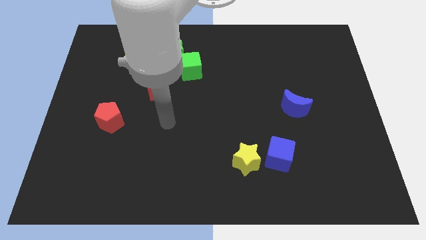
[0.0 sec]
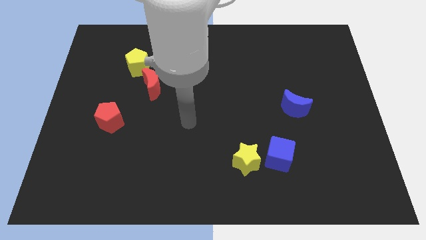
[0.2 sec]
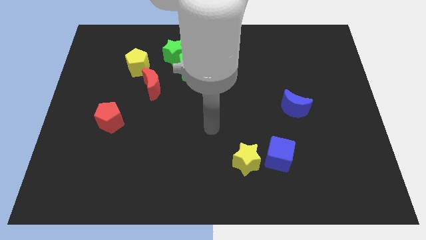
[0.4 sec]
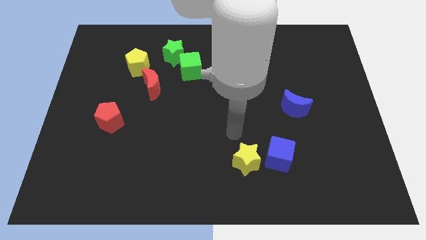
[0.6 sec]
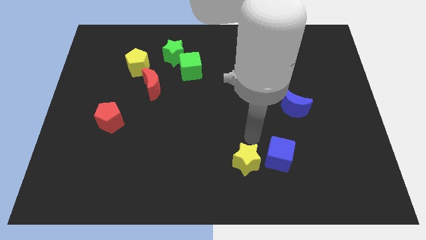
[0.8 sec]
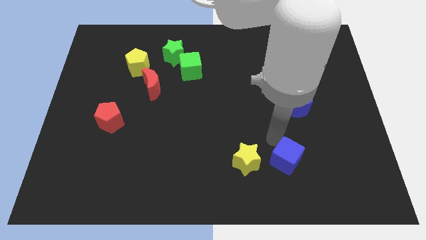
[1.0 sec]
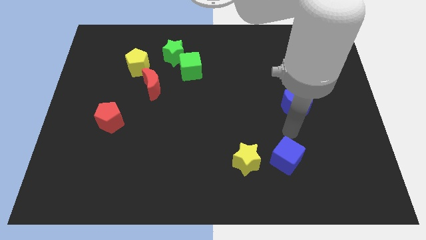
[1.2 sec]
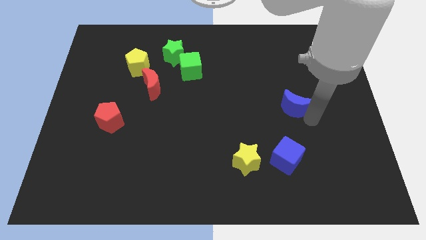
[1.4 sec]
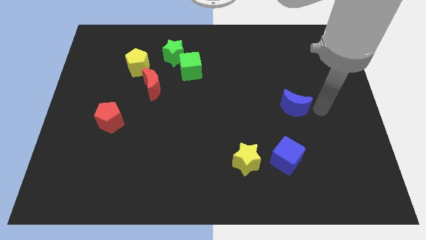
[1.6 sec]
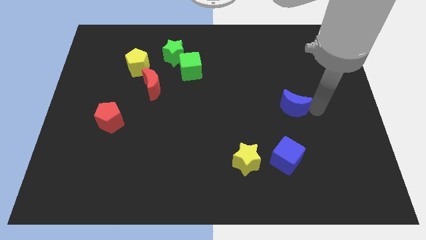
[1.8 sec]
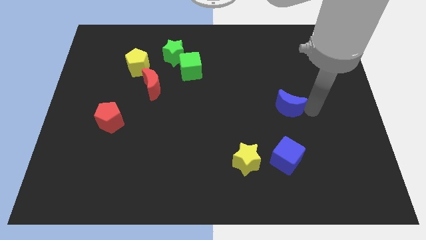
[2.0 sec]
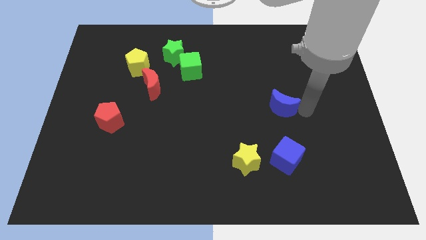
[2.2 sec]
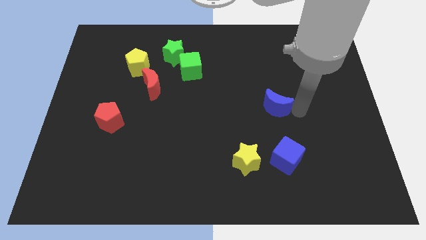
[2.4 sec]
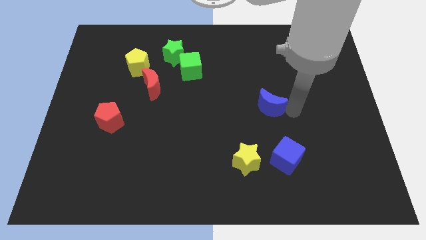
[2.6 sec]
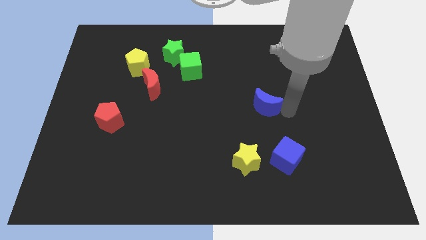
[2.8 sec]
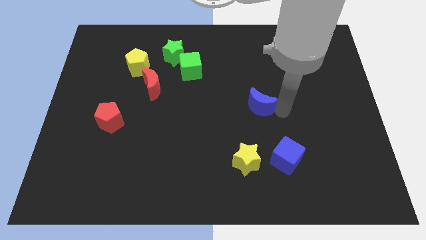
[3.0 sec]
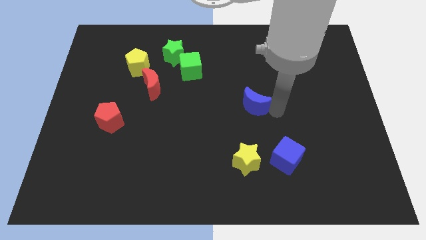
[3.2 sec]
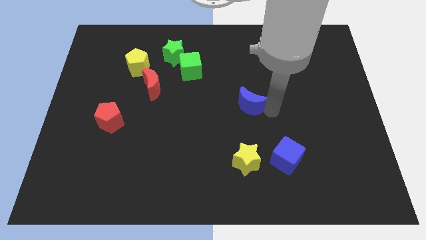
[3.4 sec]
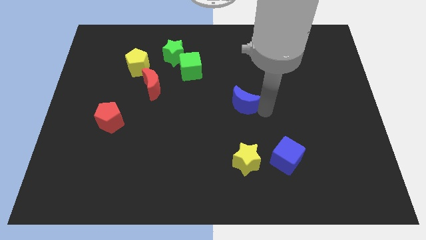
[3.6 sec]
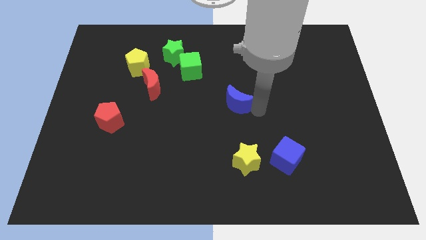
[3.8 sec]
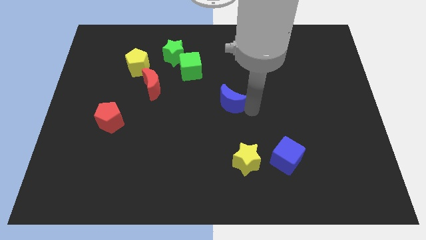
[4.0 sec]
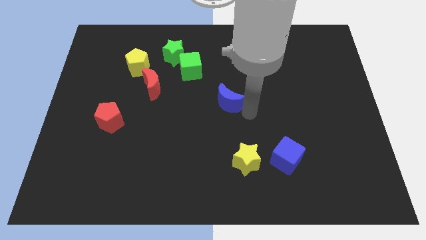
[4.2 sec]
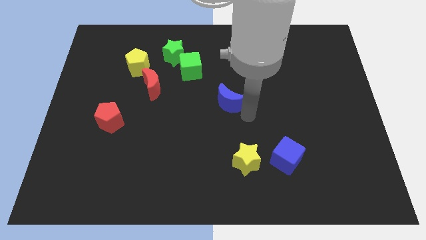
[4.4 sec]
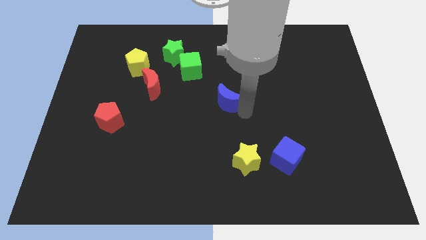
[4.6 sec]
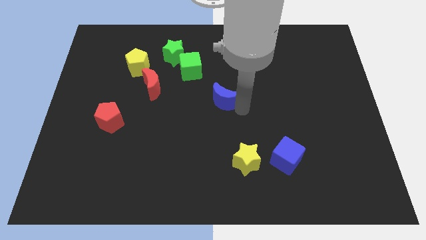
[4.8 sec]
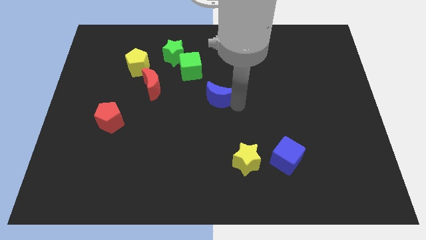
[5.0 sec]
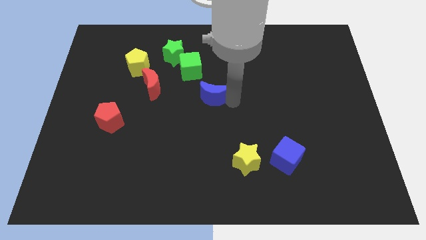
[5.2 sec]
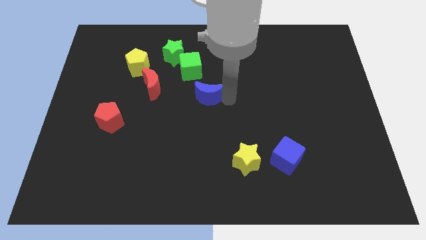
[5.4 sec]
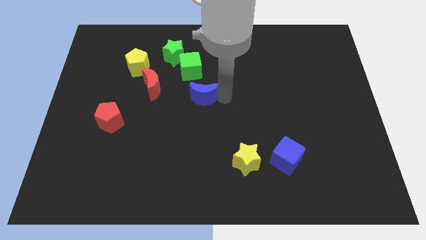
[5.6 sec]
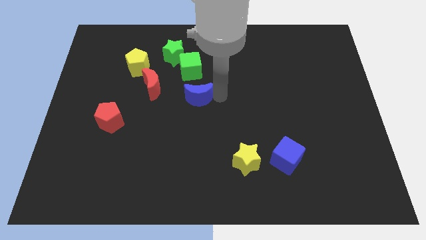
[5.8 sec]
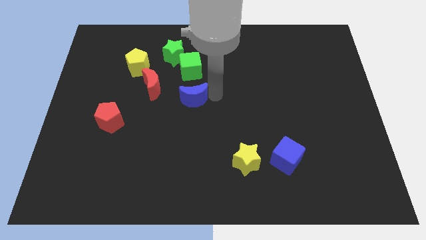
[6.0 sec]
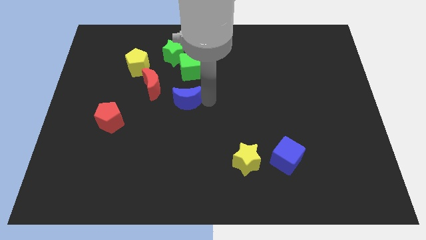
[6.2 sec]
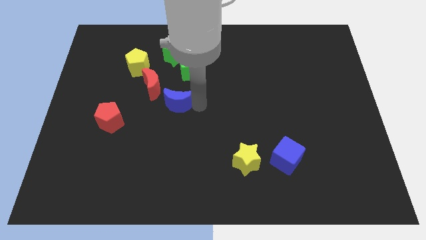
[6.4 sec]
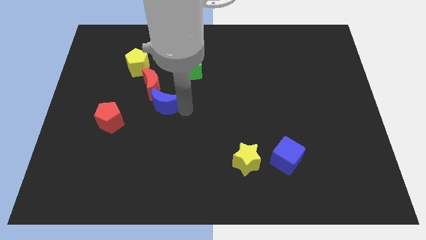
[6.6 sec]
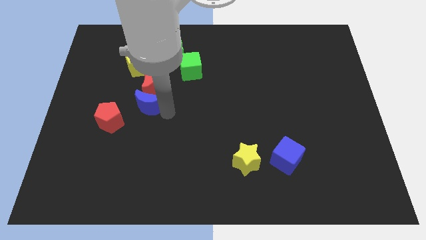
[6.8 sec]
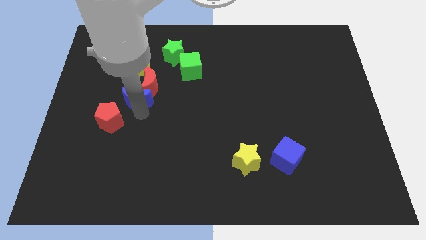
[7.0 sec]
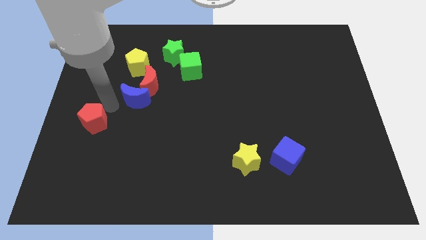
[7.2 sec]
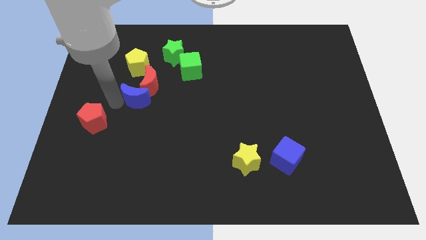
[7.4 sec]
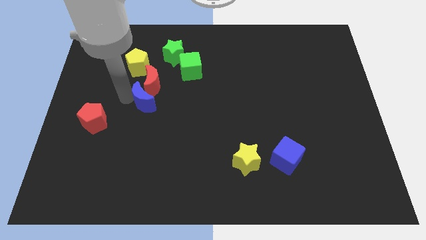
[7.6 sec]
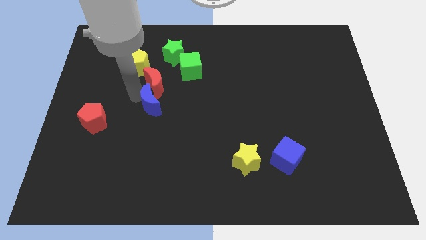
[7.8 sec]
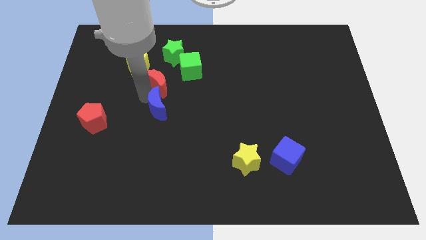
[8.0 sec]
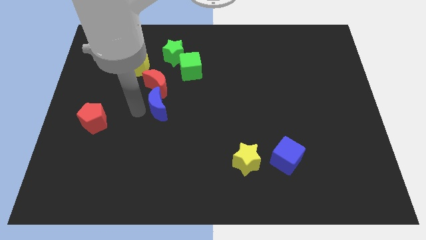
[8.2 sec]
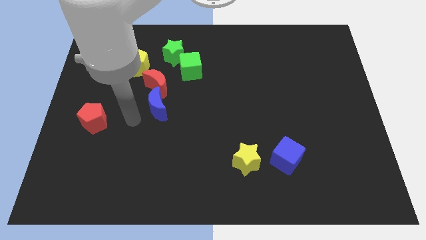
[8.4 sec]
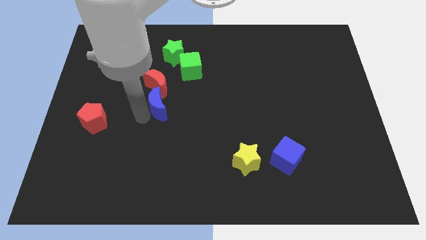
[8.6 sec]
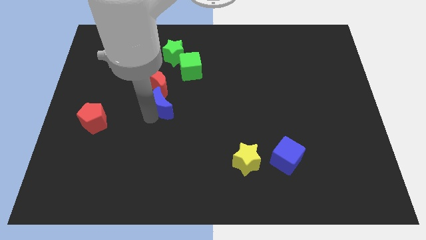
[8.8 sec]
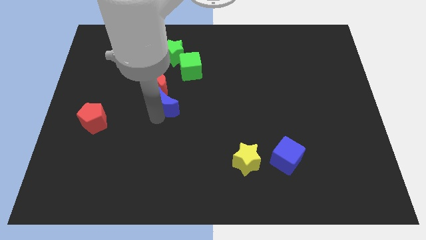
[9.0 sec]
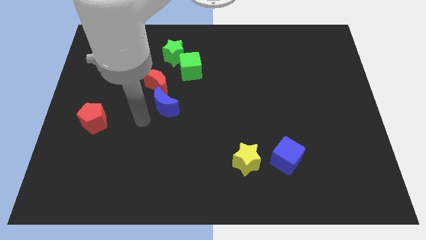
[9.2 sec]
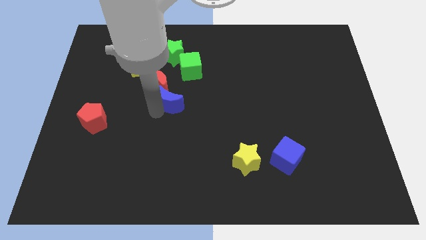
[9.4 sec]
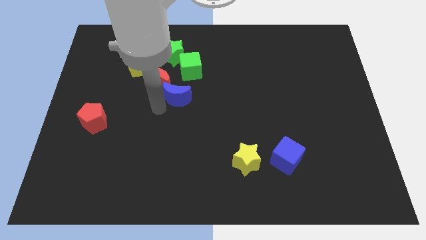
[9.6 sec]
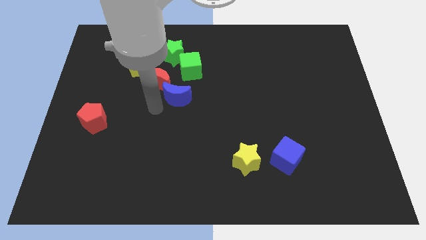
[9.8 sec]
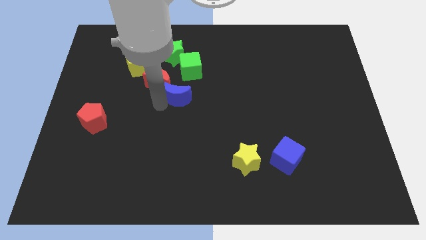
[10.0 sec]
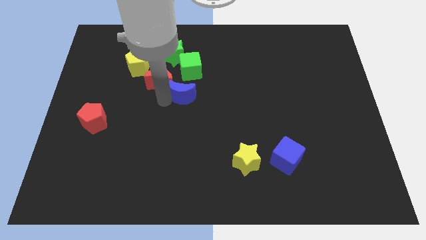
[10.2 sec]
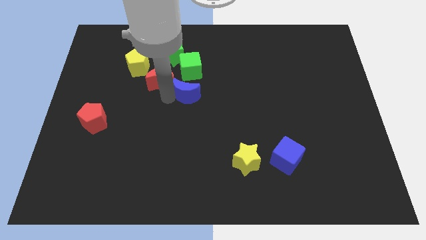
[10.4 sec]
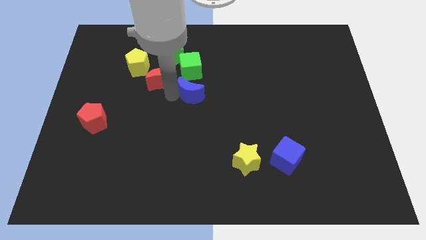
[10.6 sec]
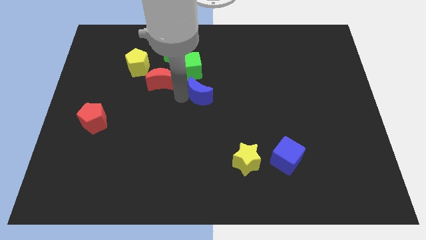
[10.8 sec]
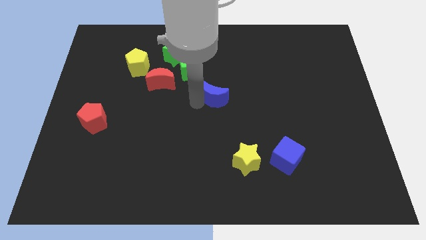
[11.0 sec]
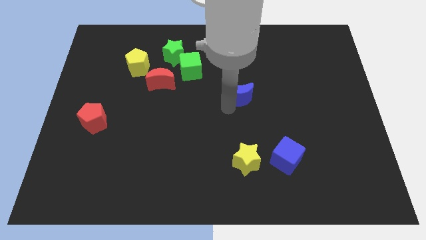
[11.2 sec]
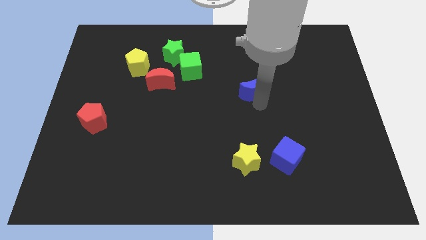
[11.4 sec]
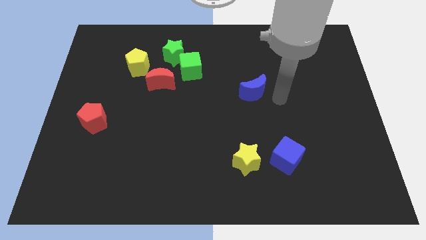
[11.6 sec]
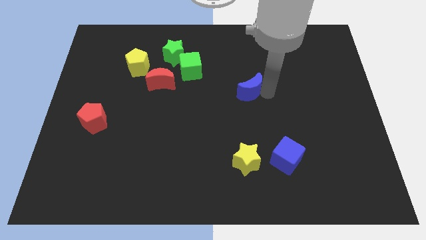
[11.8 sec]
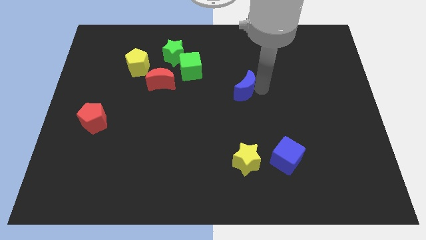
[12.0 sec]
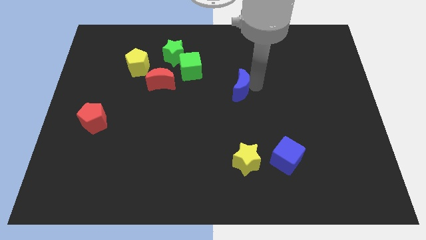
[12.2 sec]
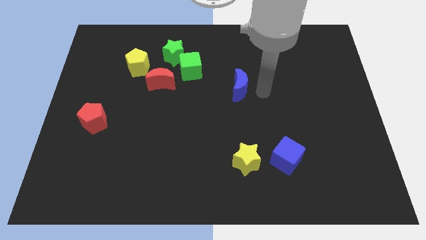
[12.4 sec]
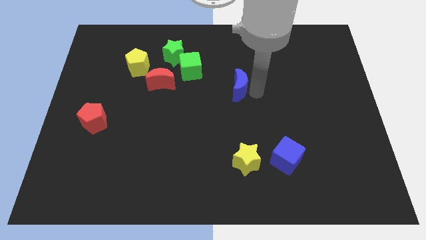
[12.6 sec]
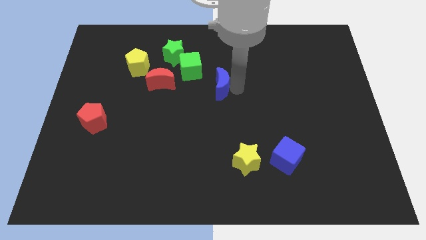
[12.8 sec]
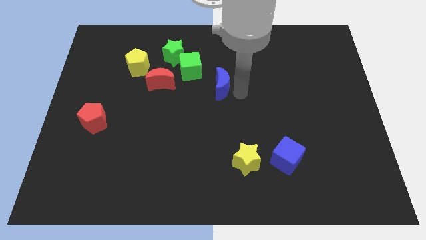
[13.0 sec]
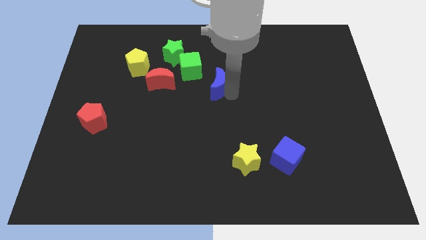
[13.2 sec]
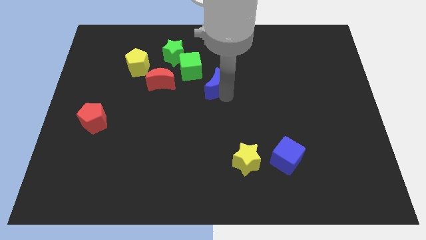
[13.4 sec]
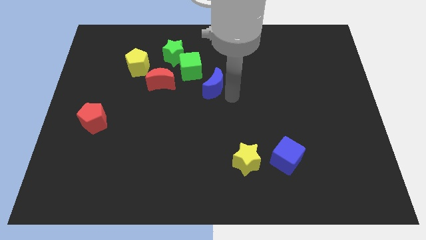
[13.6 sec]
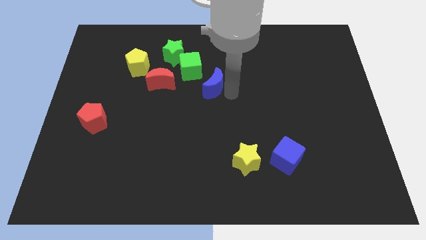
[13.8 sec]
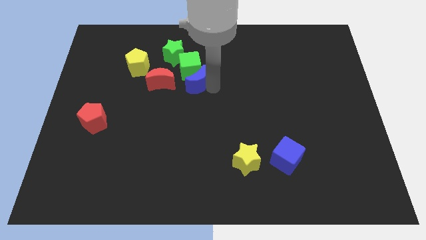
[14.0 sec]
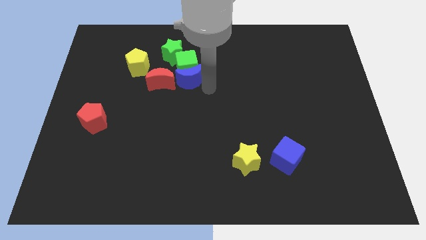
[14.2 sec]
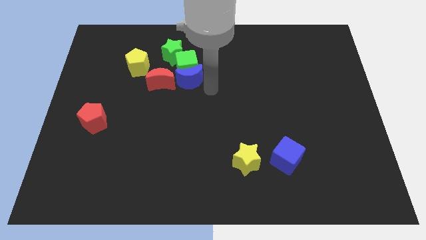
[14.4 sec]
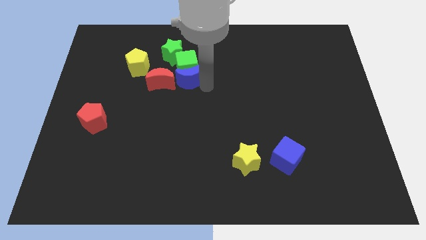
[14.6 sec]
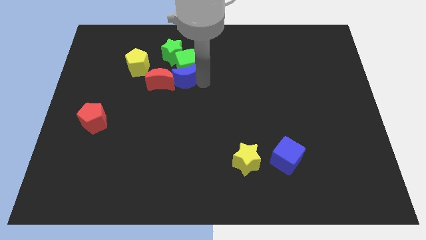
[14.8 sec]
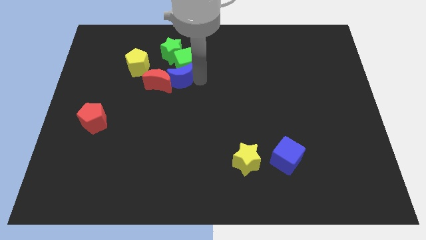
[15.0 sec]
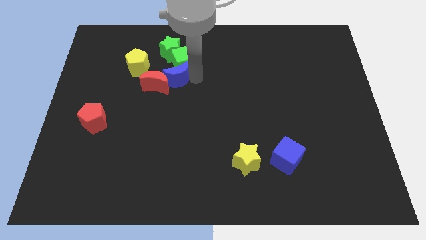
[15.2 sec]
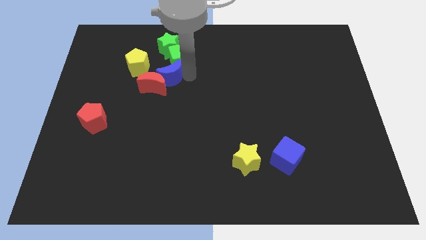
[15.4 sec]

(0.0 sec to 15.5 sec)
push the blue moon to the top side of the red moon
